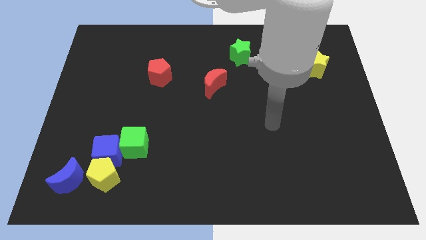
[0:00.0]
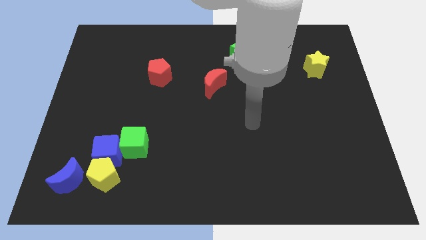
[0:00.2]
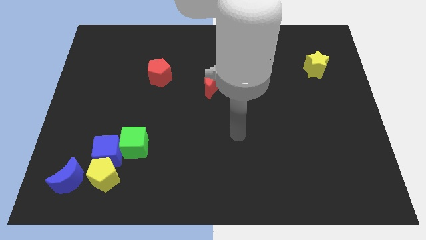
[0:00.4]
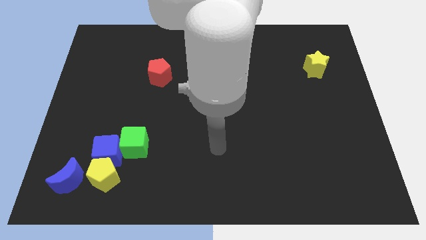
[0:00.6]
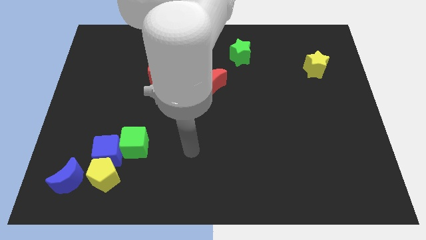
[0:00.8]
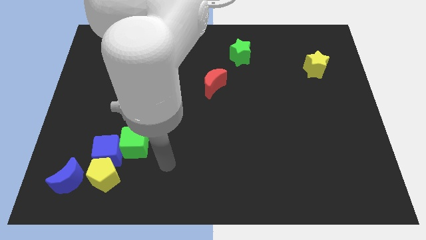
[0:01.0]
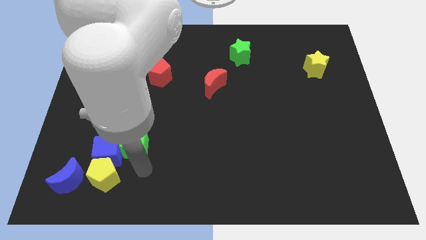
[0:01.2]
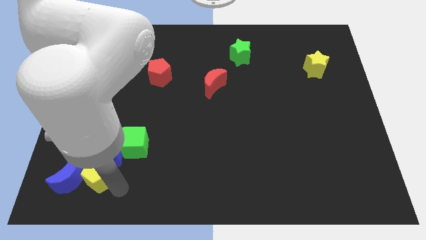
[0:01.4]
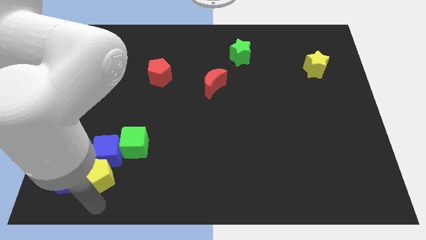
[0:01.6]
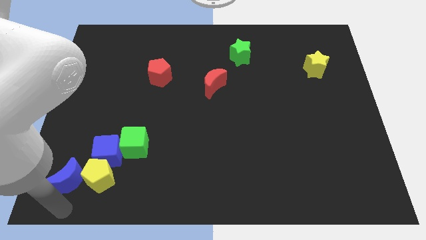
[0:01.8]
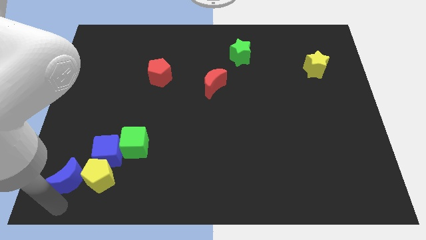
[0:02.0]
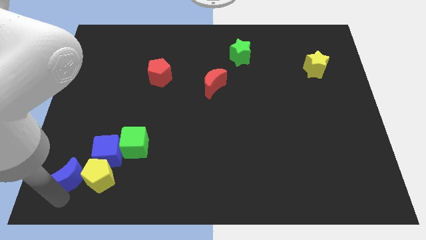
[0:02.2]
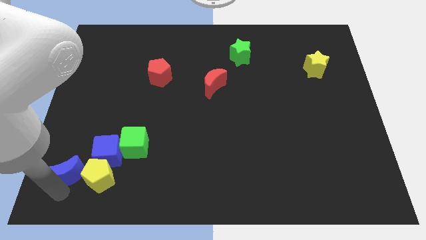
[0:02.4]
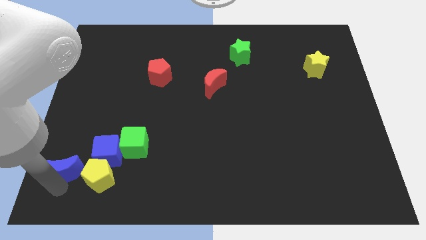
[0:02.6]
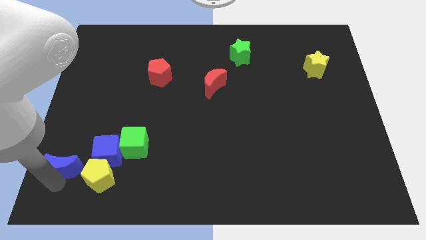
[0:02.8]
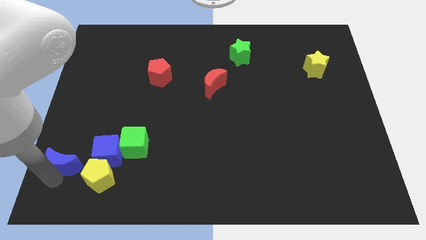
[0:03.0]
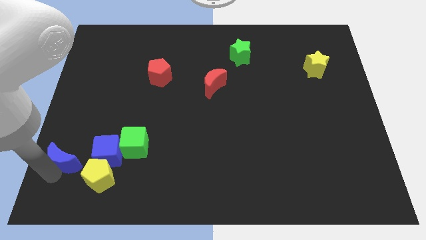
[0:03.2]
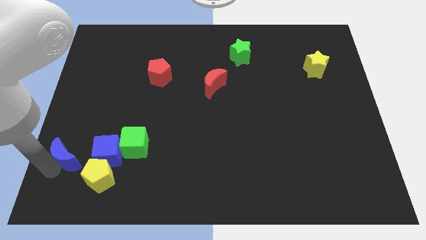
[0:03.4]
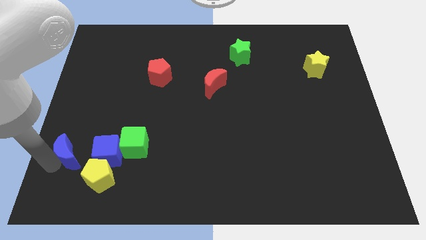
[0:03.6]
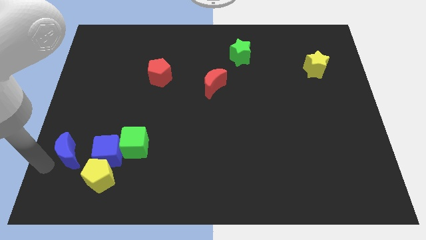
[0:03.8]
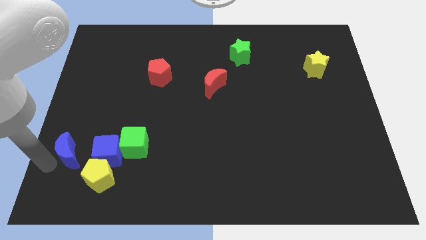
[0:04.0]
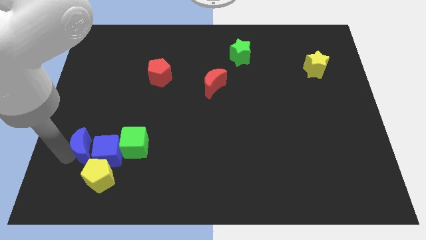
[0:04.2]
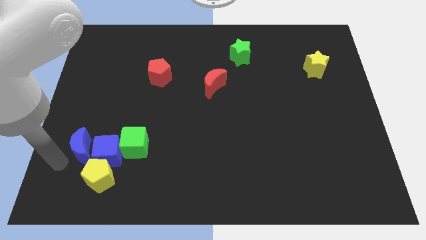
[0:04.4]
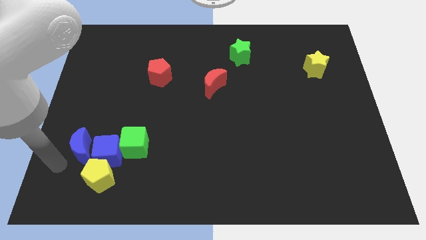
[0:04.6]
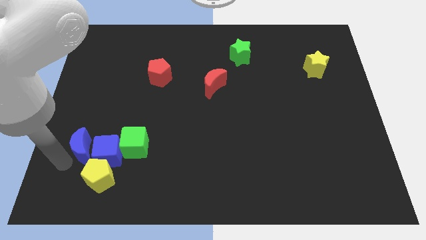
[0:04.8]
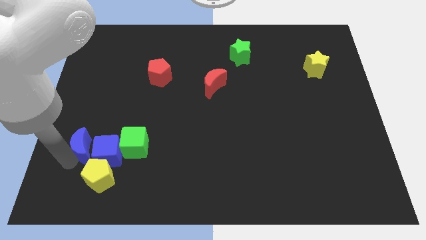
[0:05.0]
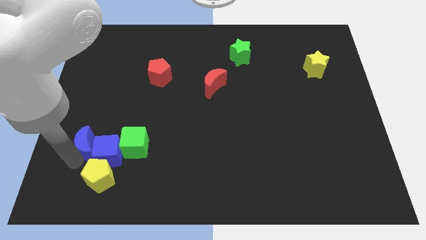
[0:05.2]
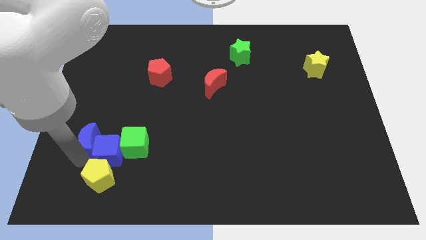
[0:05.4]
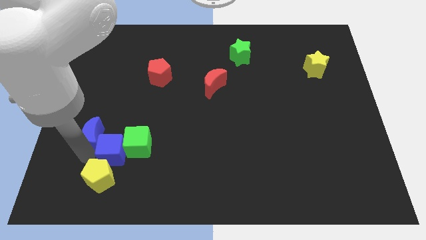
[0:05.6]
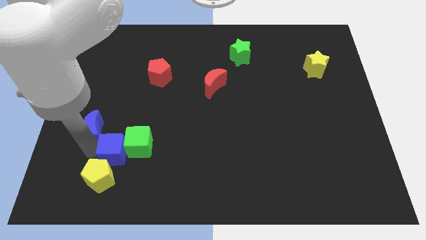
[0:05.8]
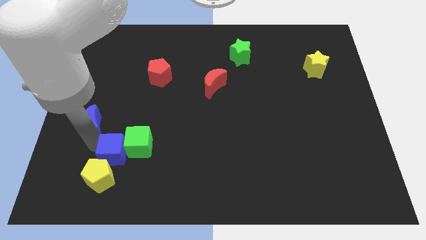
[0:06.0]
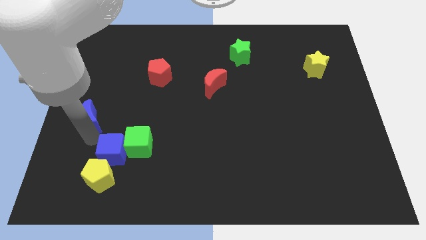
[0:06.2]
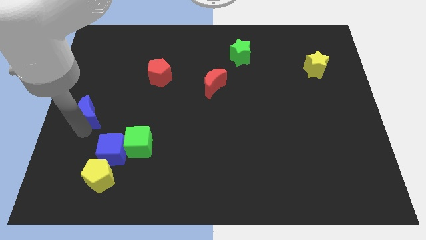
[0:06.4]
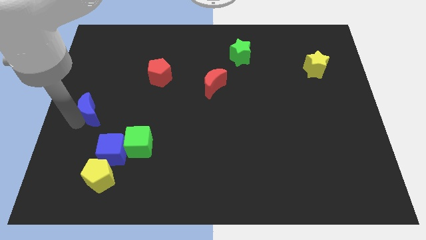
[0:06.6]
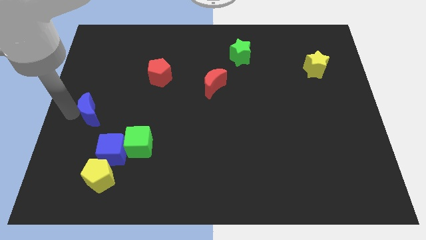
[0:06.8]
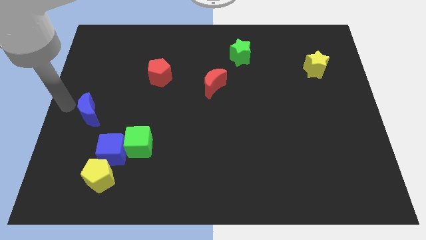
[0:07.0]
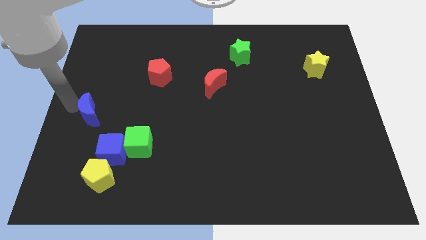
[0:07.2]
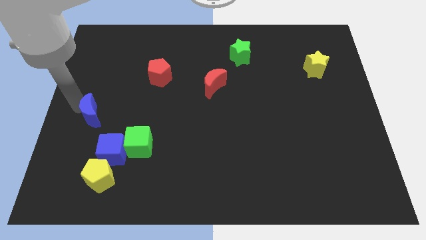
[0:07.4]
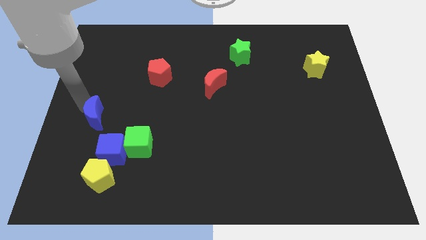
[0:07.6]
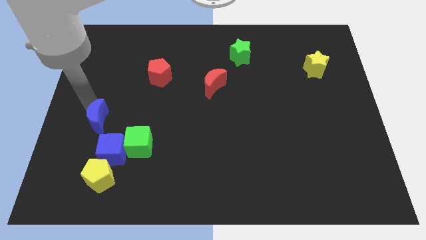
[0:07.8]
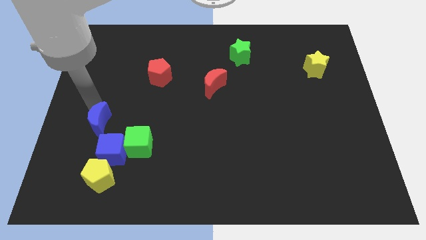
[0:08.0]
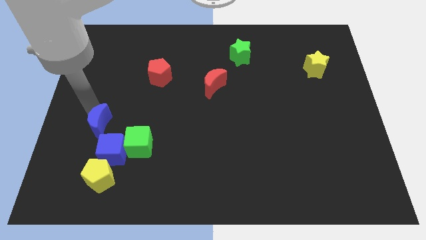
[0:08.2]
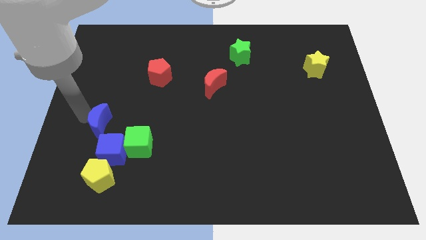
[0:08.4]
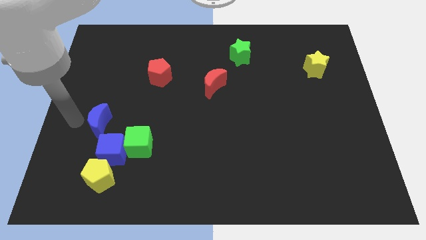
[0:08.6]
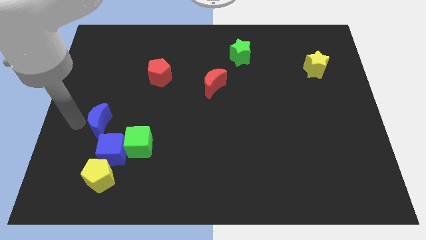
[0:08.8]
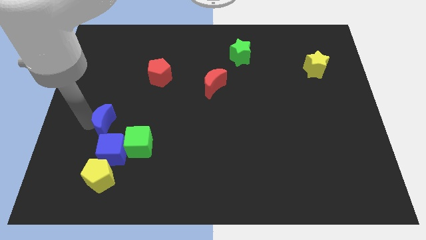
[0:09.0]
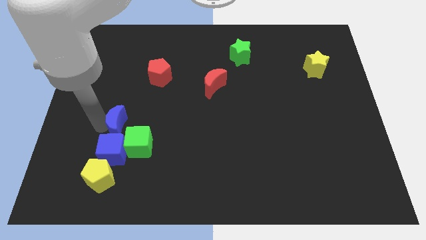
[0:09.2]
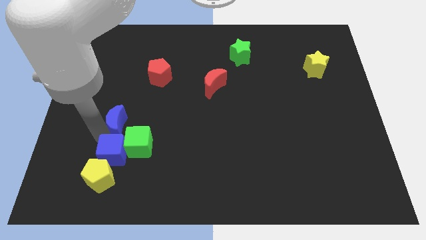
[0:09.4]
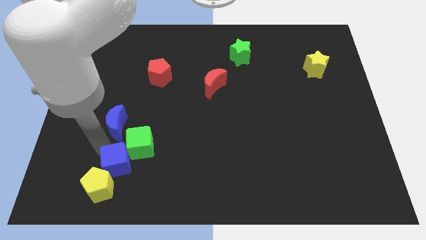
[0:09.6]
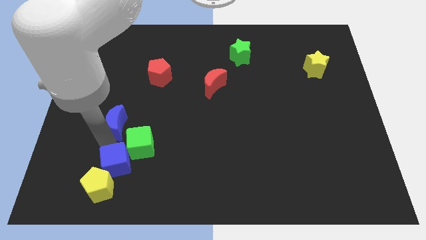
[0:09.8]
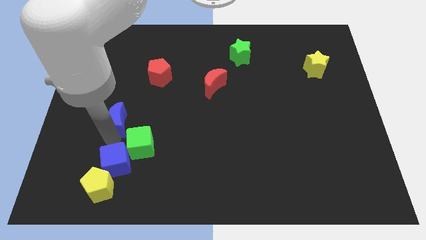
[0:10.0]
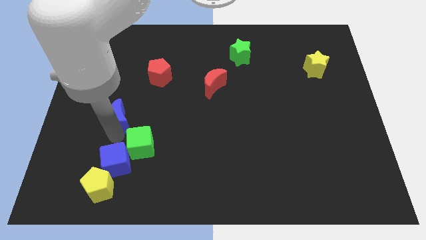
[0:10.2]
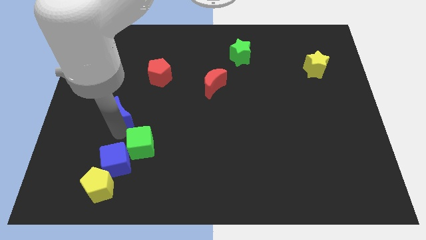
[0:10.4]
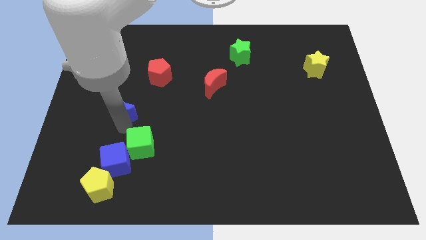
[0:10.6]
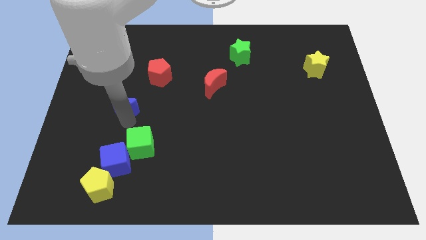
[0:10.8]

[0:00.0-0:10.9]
put the blue moon diagonally down and to the left of the red pentagon

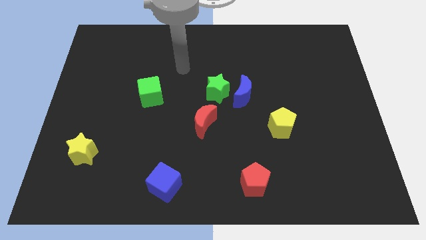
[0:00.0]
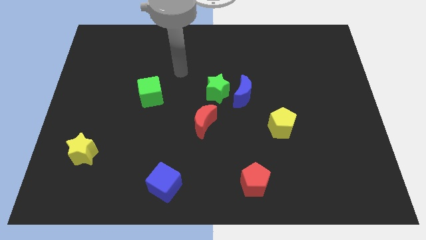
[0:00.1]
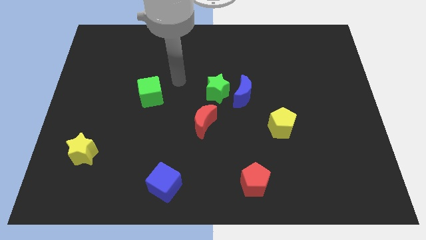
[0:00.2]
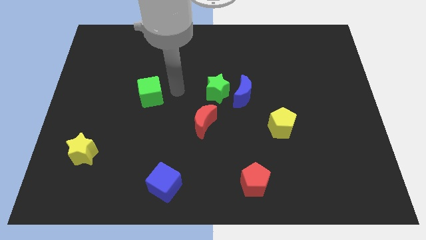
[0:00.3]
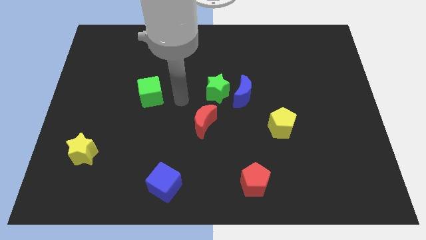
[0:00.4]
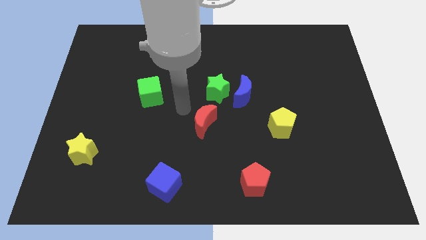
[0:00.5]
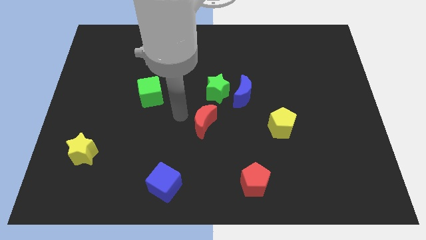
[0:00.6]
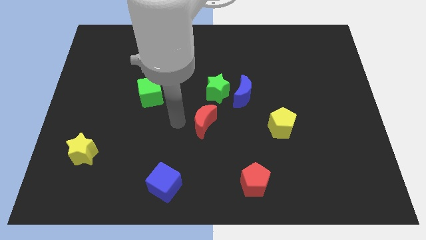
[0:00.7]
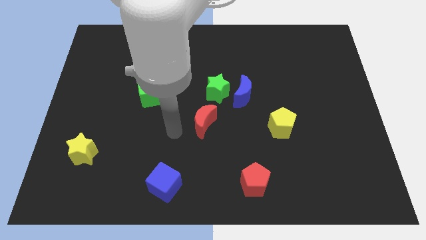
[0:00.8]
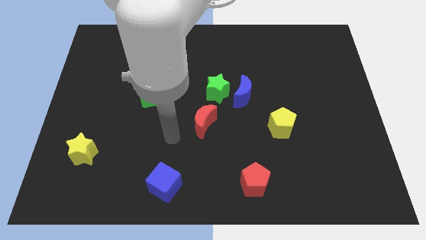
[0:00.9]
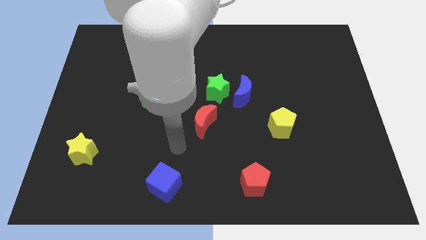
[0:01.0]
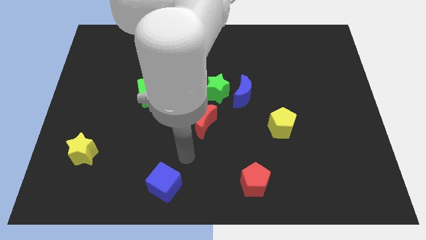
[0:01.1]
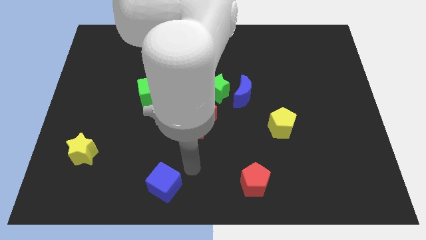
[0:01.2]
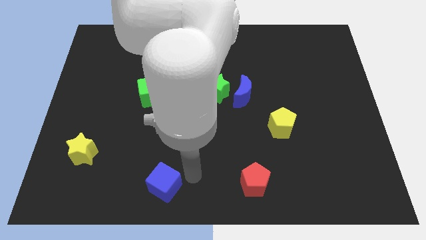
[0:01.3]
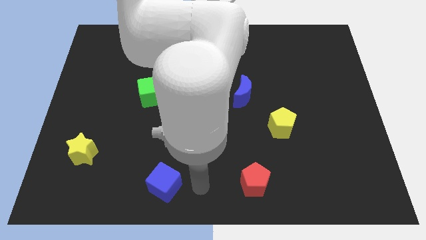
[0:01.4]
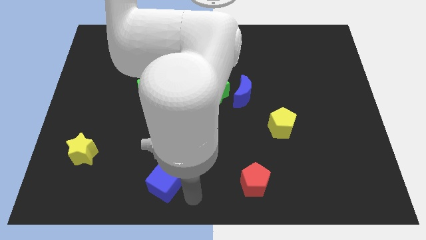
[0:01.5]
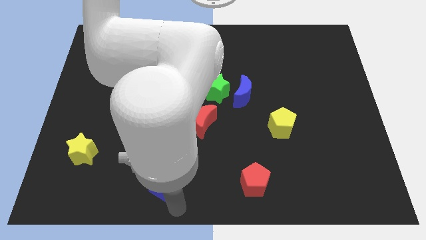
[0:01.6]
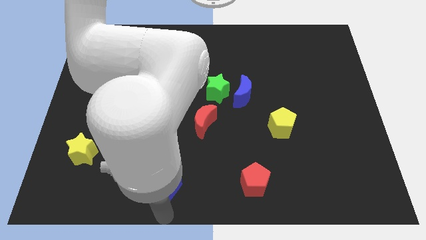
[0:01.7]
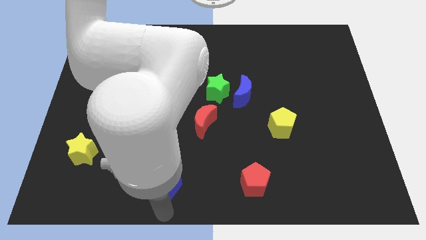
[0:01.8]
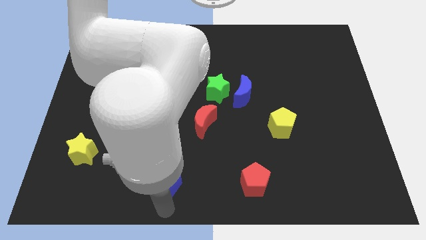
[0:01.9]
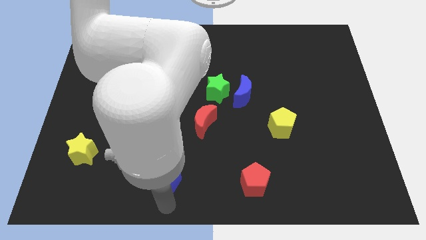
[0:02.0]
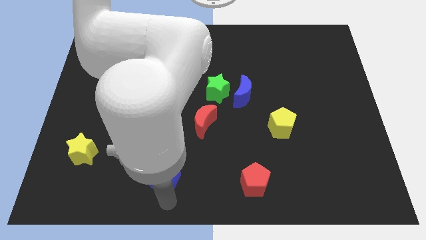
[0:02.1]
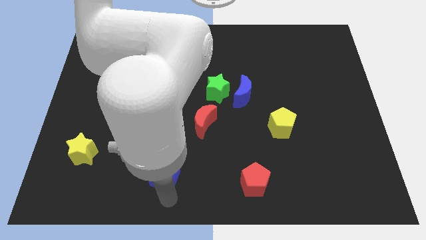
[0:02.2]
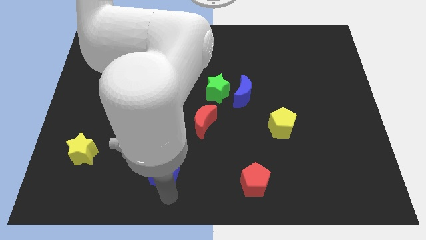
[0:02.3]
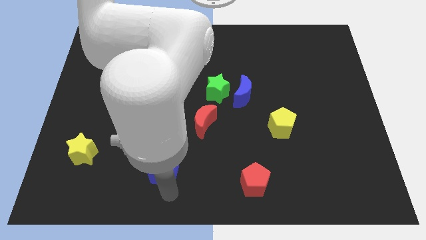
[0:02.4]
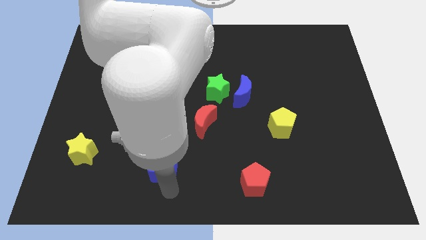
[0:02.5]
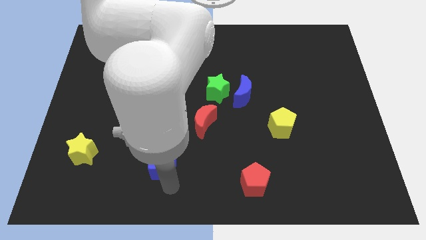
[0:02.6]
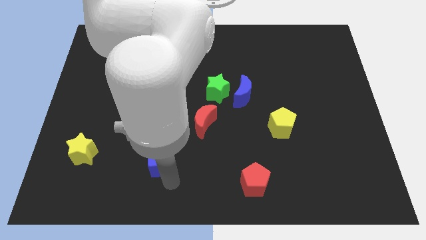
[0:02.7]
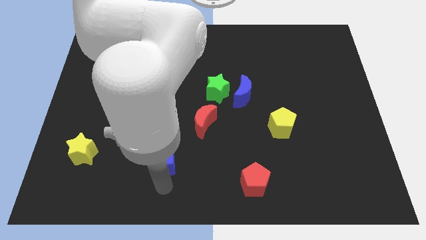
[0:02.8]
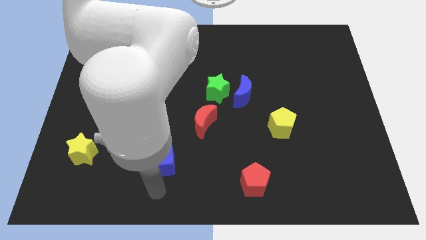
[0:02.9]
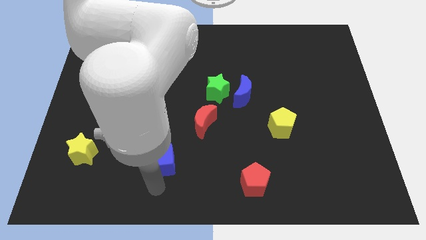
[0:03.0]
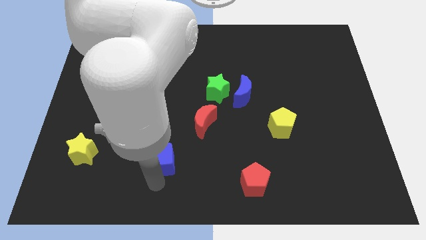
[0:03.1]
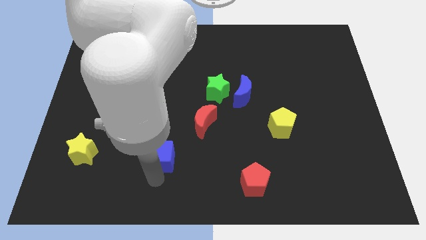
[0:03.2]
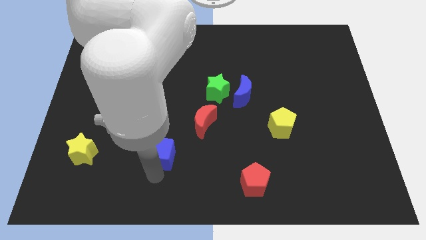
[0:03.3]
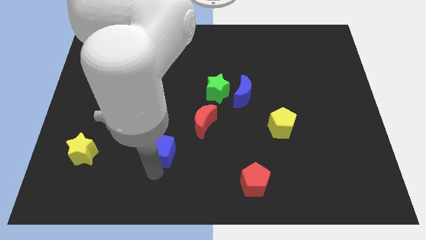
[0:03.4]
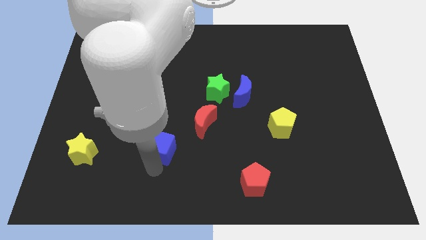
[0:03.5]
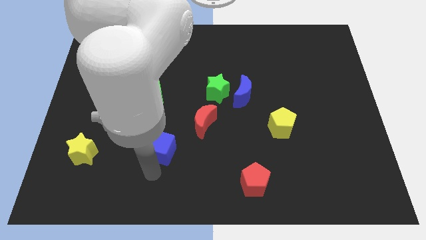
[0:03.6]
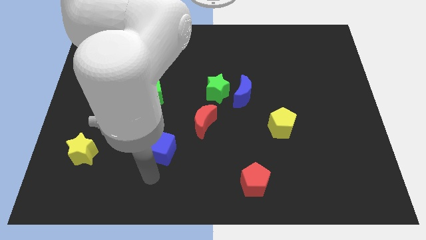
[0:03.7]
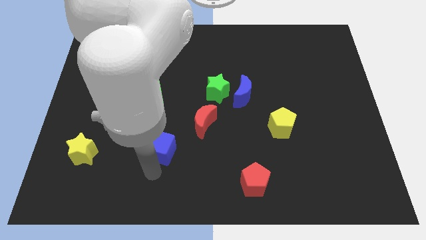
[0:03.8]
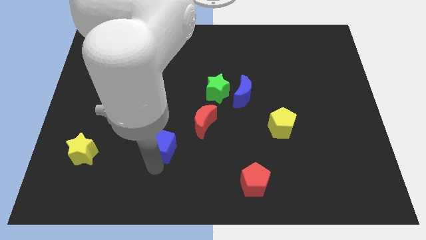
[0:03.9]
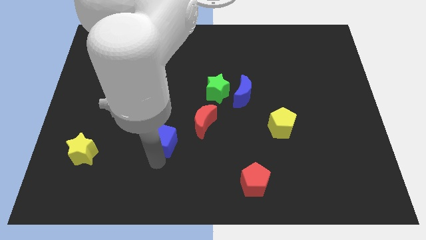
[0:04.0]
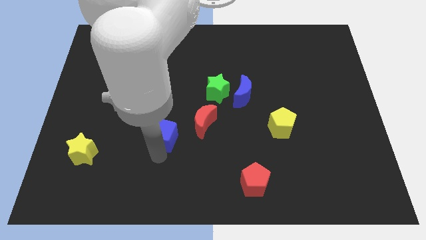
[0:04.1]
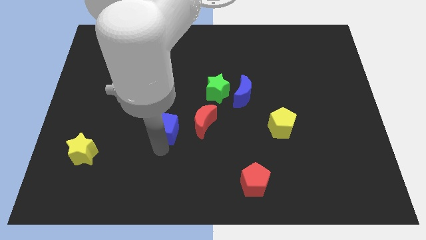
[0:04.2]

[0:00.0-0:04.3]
push the blue cube to the bottom right of the green cube
